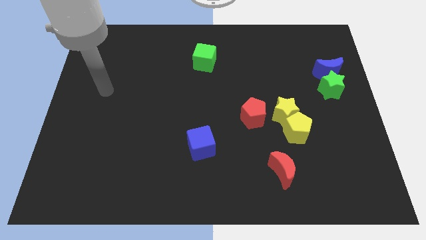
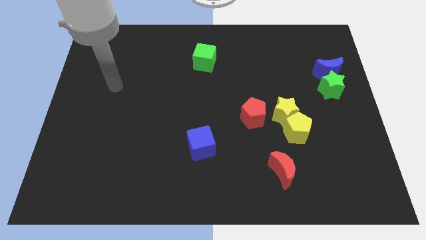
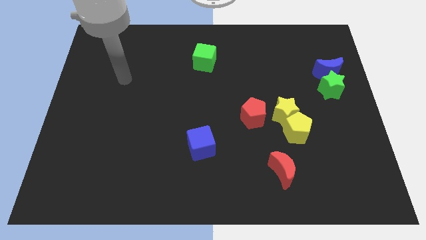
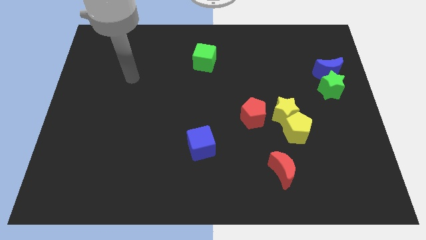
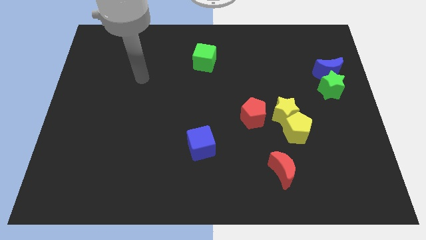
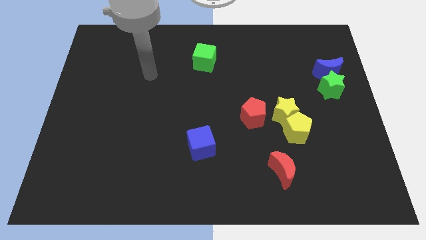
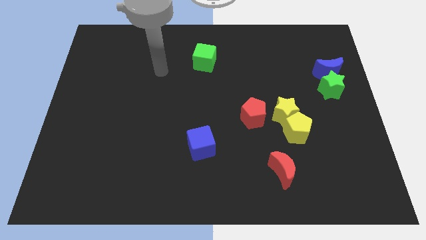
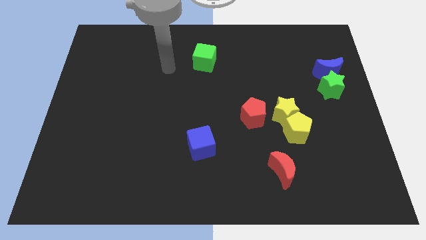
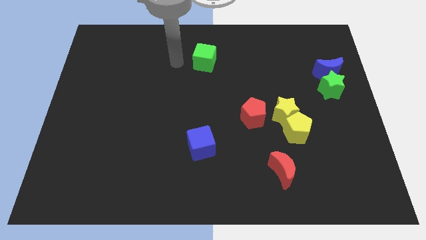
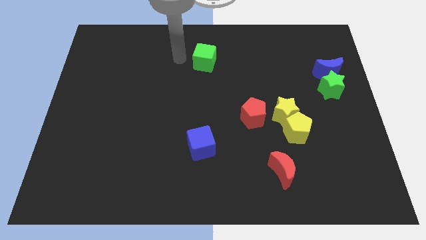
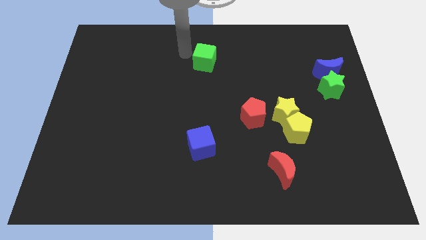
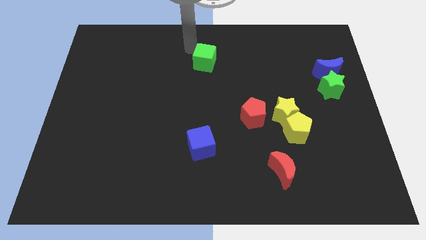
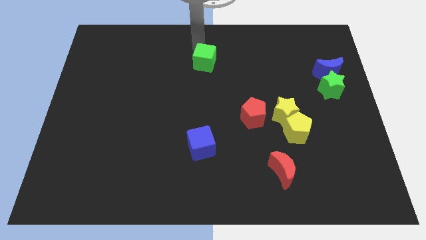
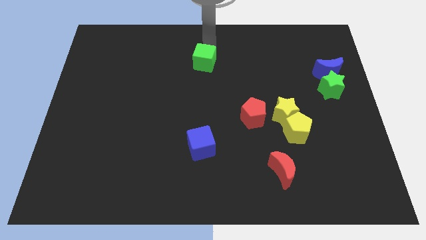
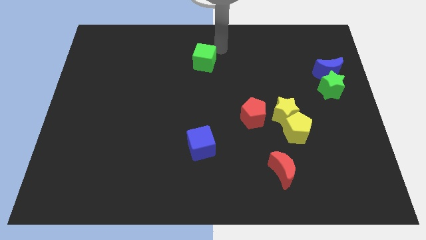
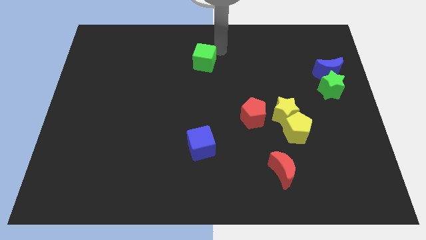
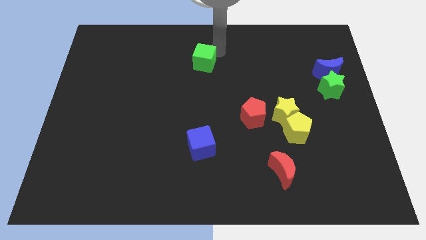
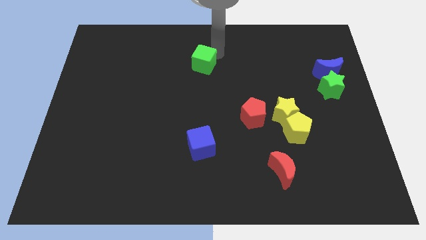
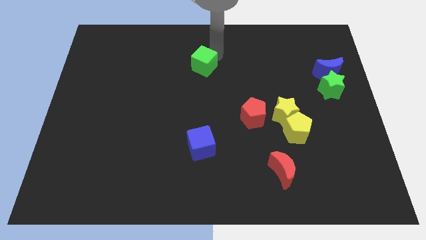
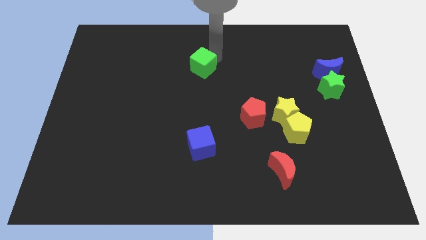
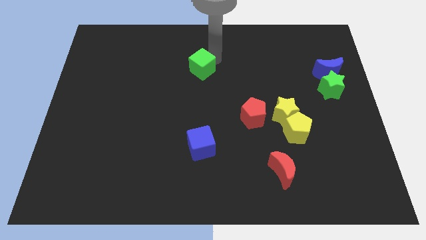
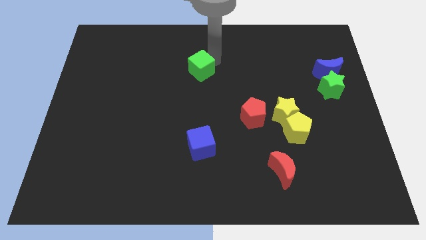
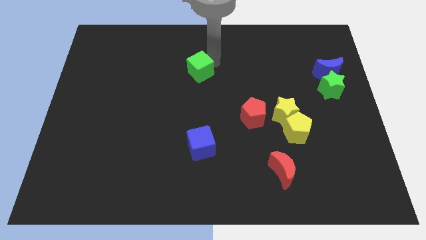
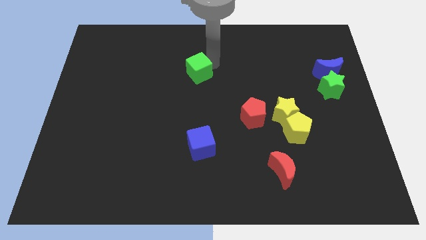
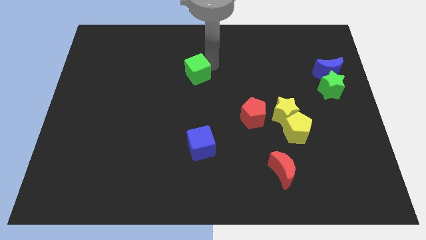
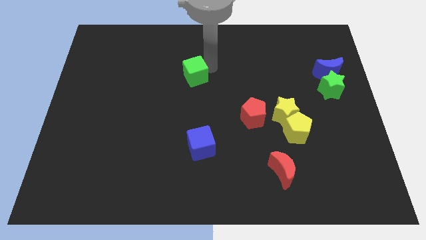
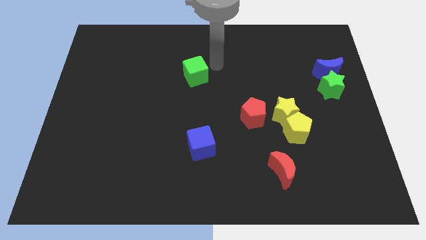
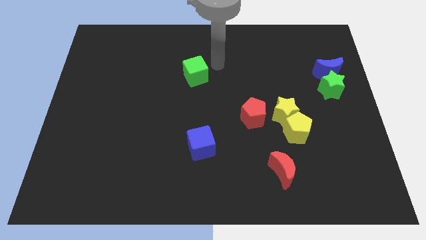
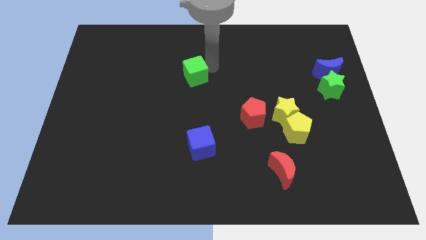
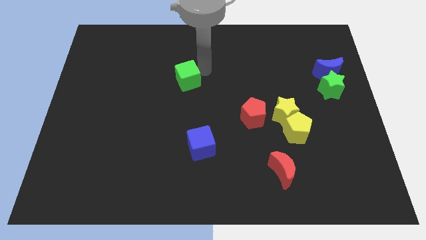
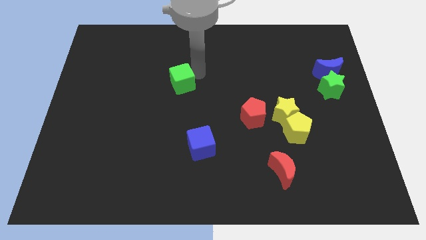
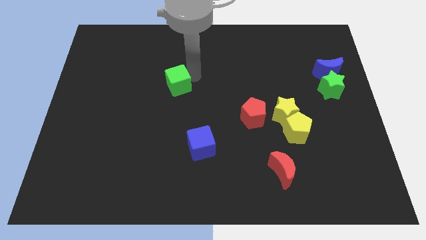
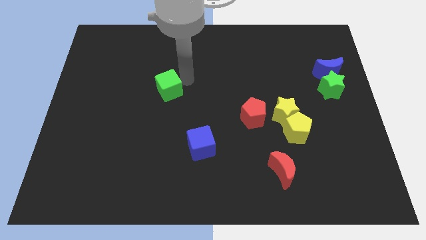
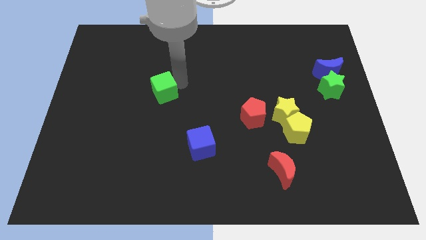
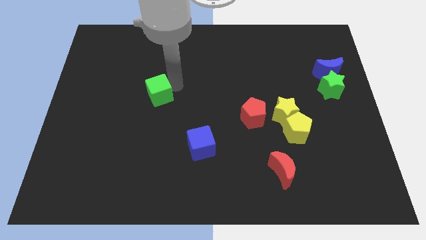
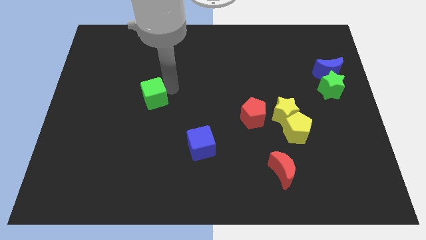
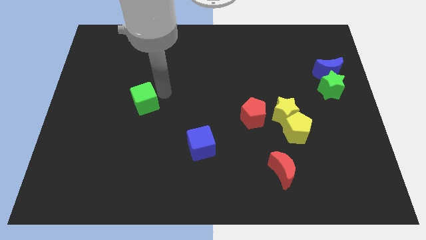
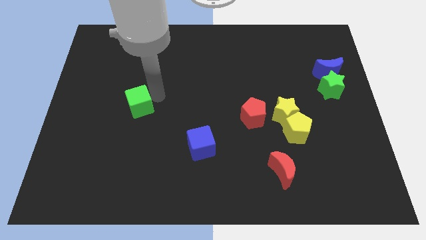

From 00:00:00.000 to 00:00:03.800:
slide the green cube diagonally downwards and to the left

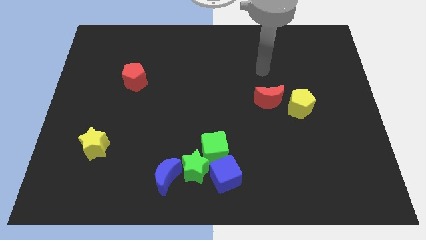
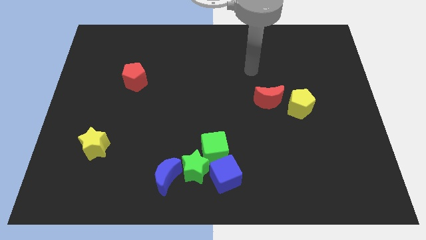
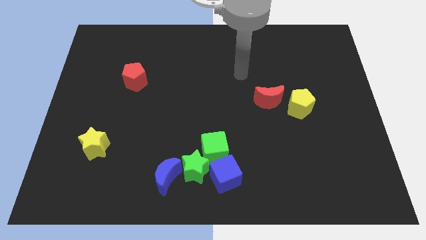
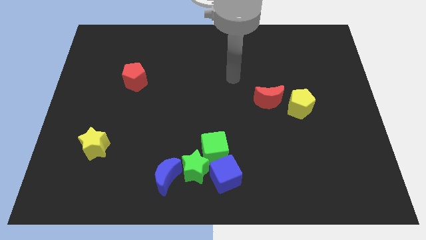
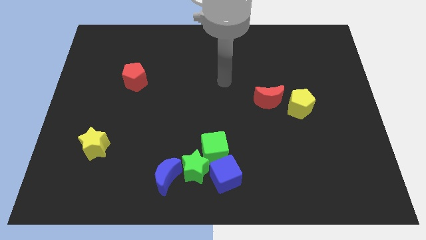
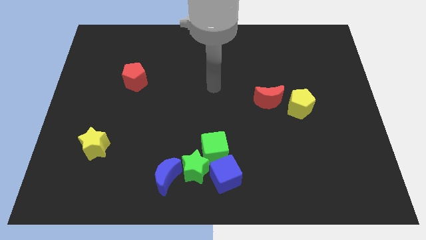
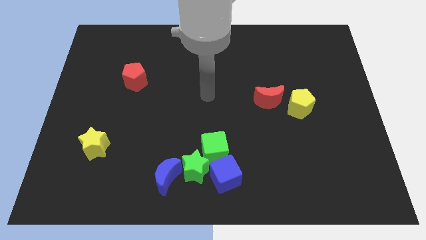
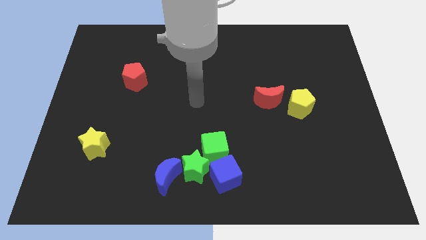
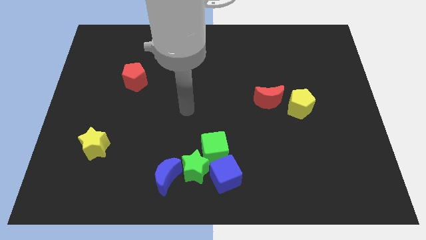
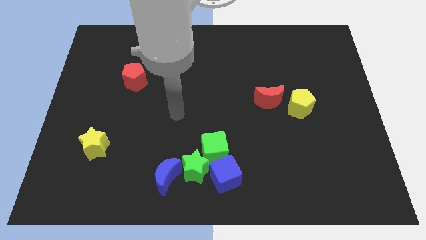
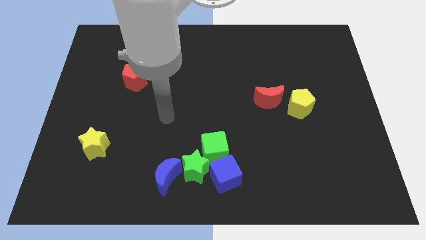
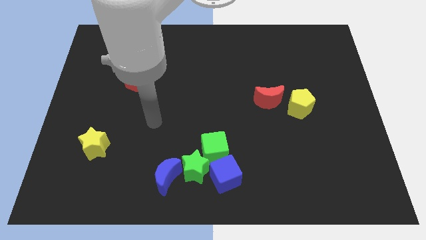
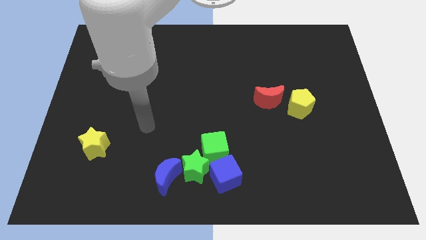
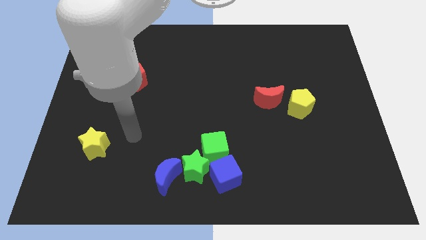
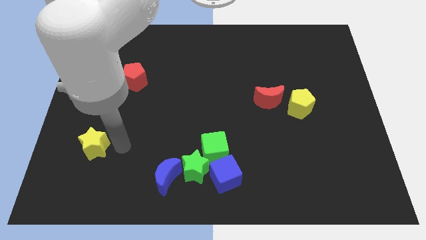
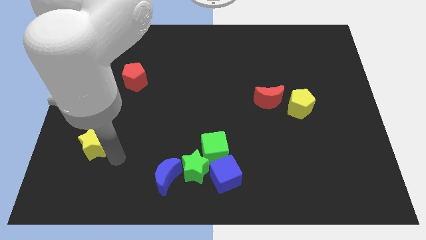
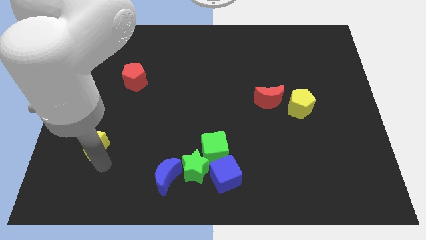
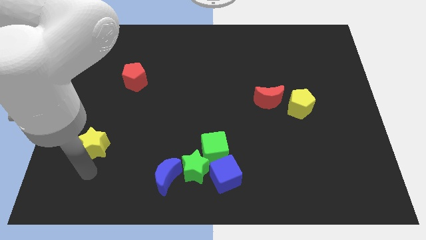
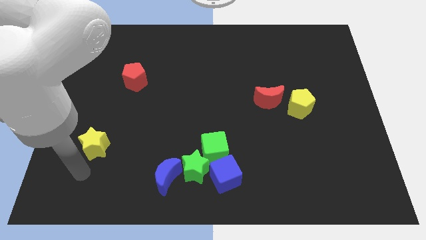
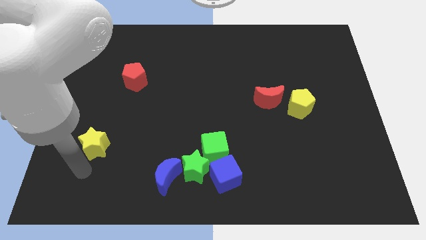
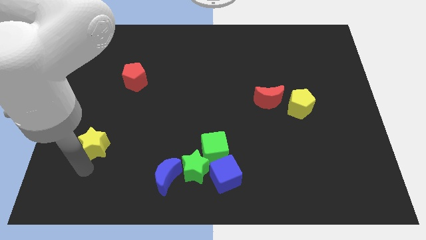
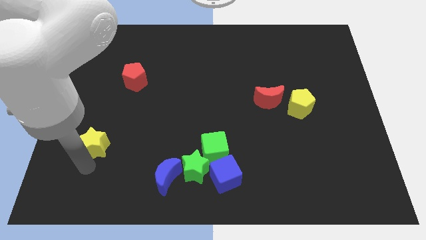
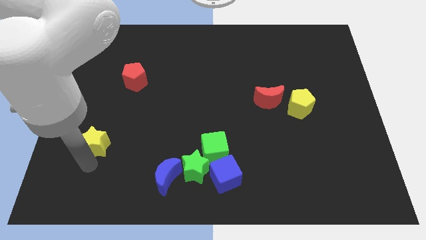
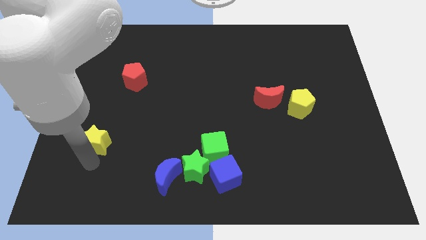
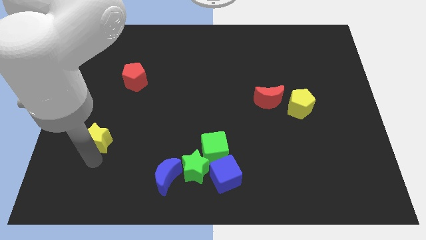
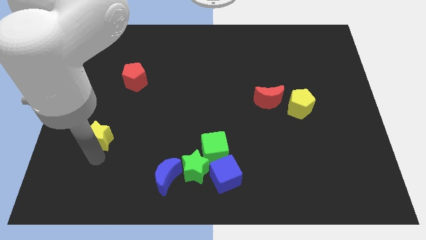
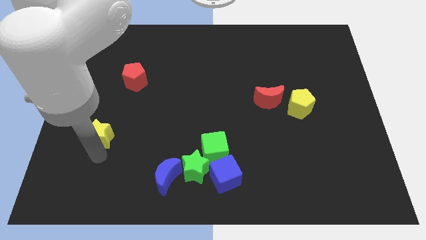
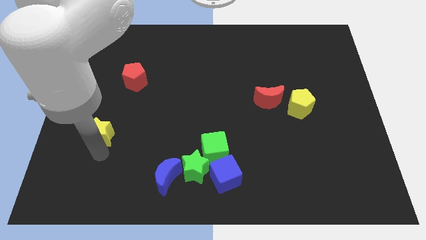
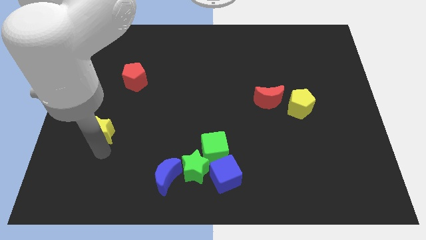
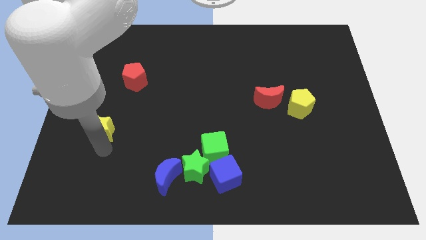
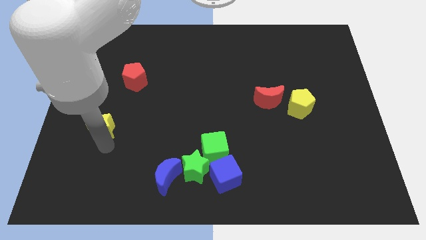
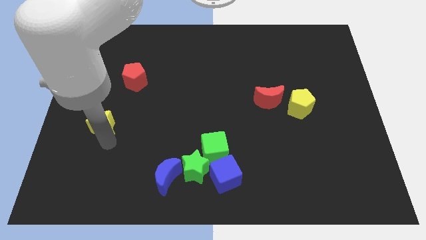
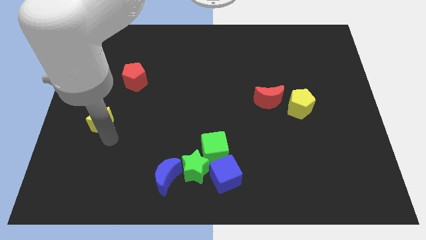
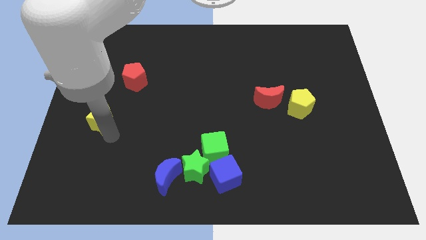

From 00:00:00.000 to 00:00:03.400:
push the yellow star upwards somewhat

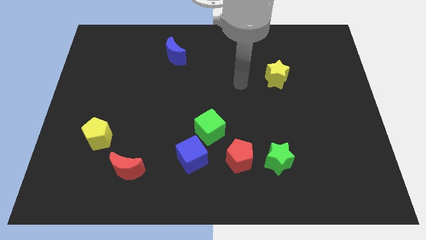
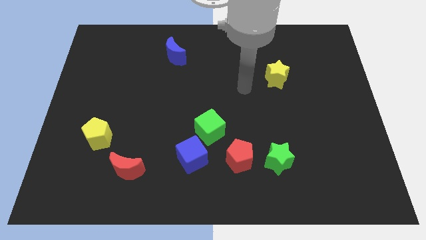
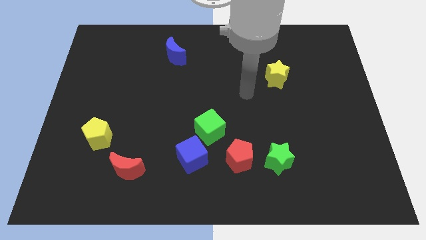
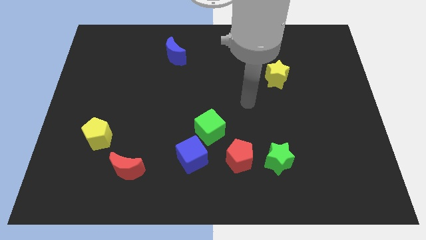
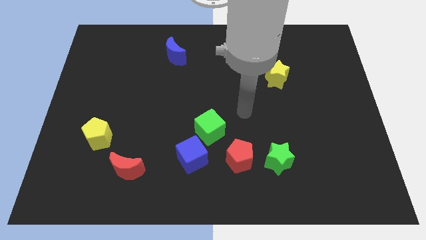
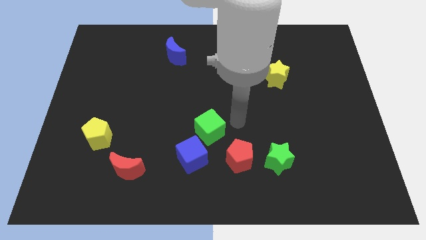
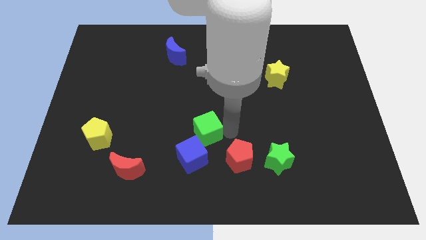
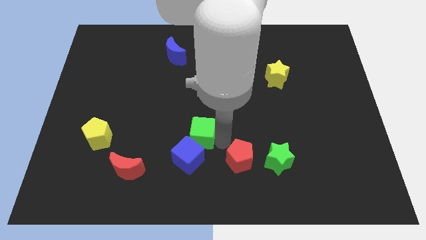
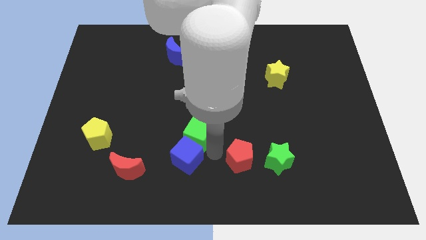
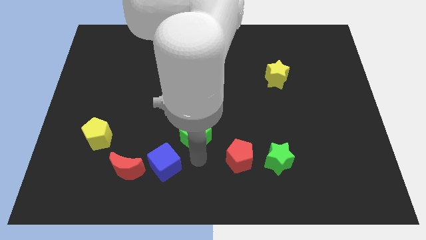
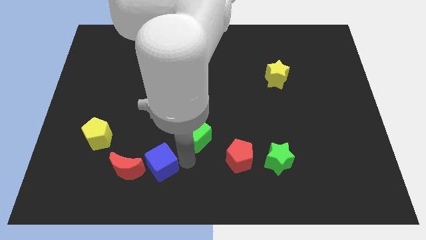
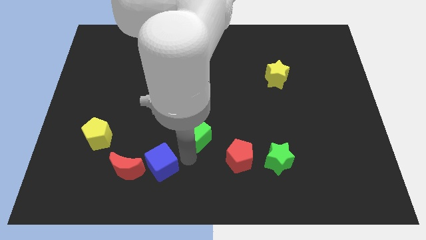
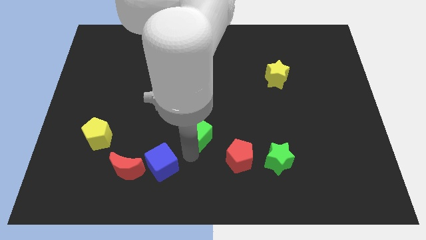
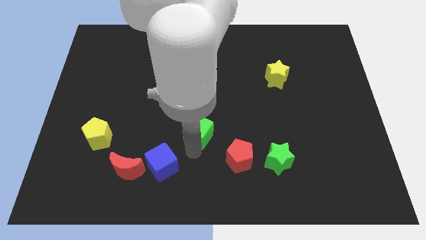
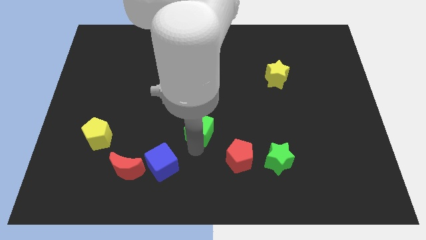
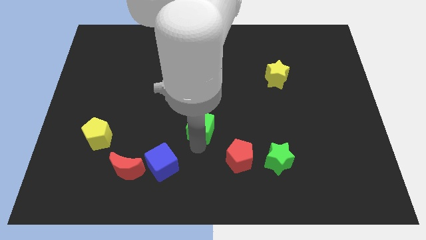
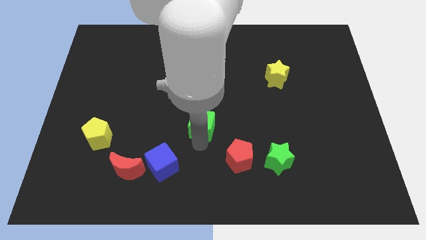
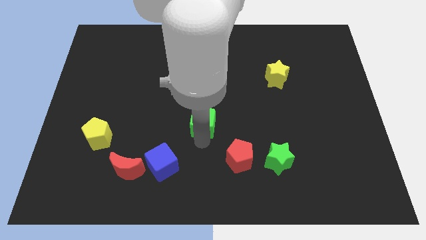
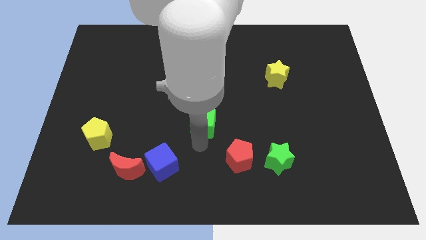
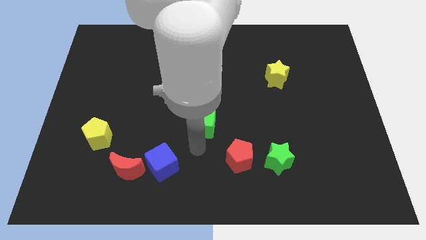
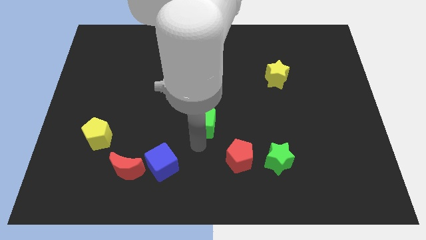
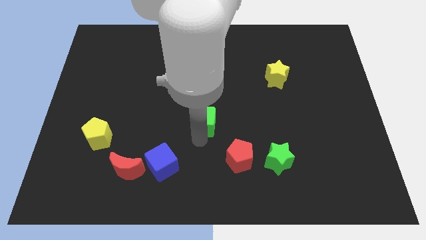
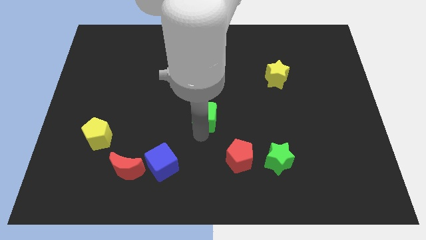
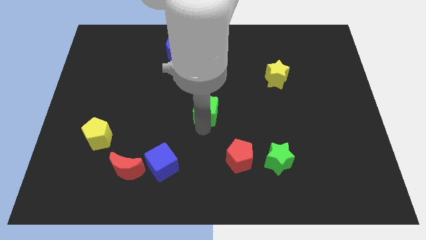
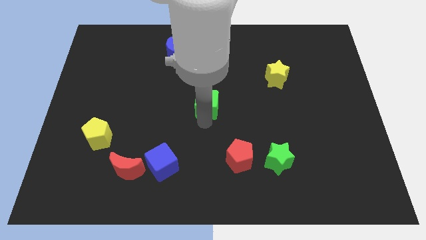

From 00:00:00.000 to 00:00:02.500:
push the green cube slightly up
